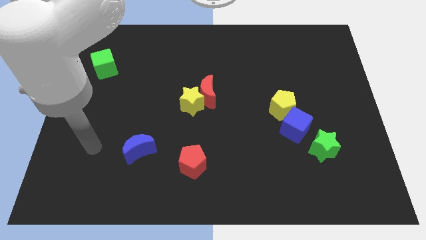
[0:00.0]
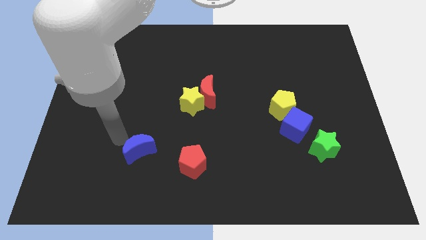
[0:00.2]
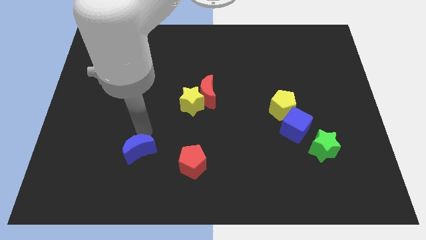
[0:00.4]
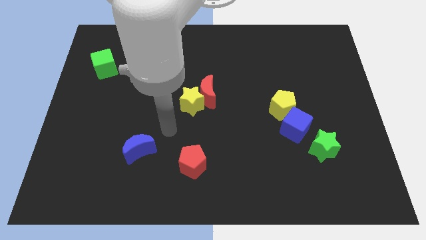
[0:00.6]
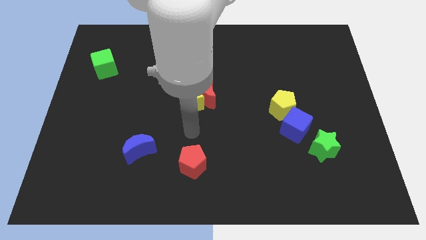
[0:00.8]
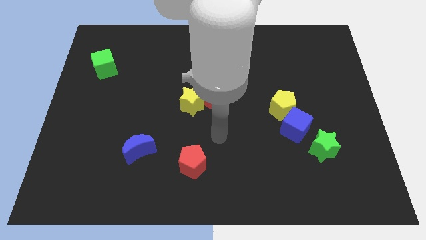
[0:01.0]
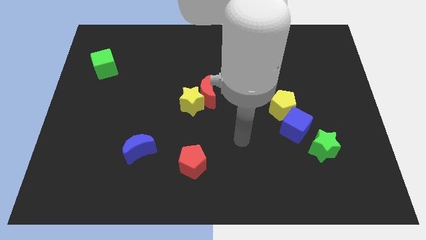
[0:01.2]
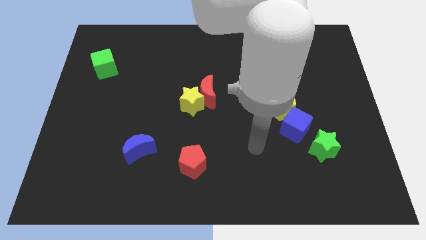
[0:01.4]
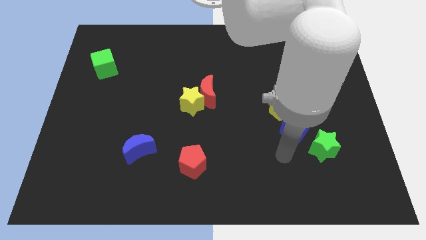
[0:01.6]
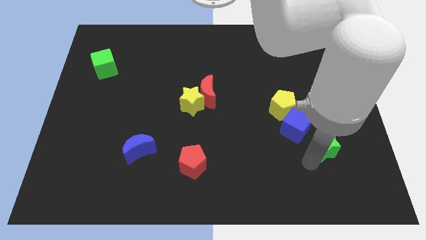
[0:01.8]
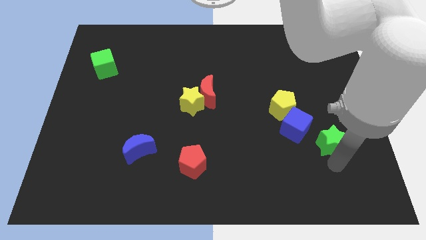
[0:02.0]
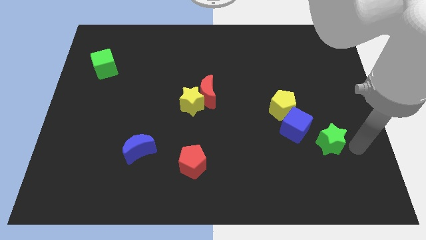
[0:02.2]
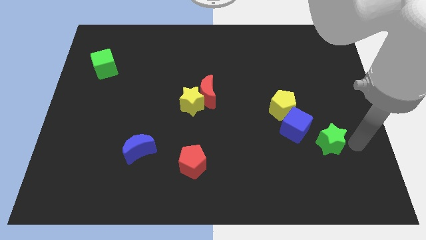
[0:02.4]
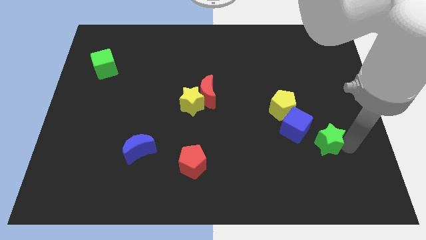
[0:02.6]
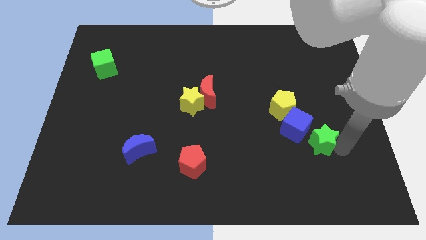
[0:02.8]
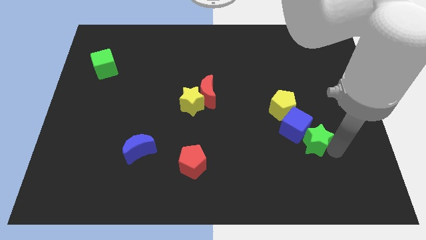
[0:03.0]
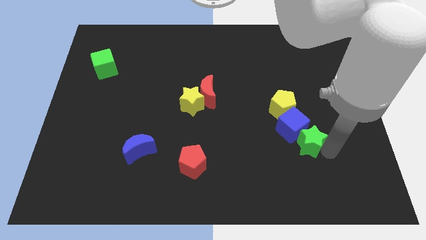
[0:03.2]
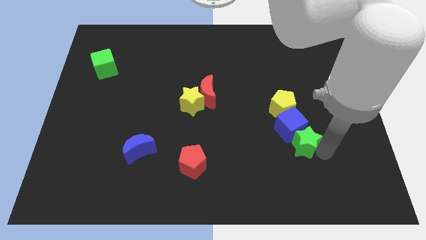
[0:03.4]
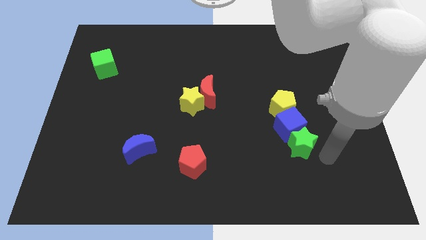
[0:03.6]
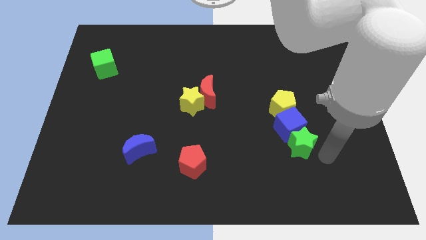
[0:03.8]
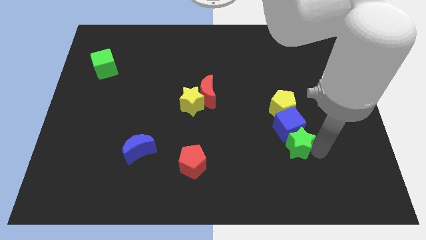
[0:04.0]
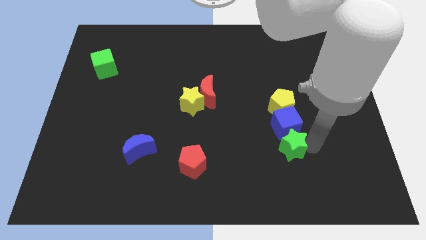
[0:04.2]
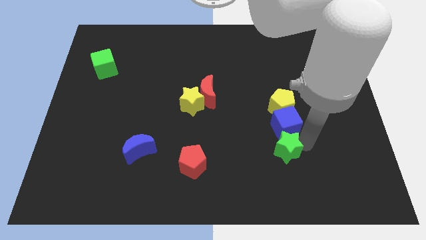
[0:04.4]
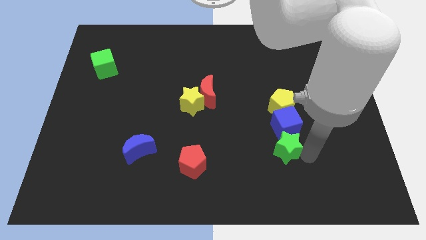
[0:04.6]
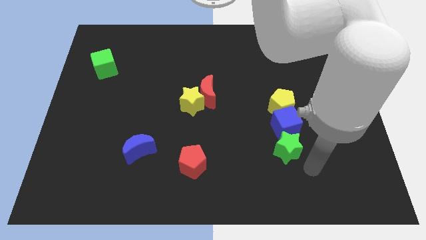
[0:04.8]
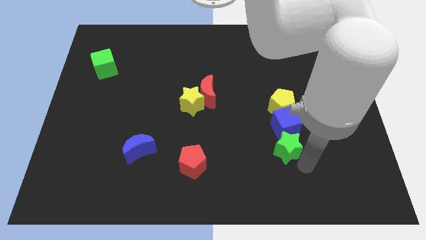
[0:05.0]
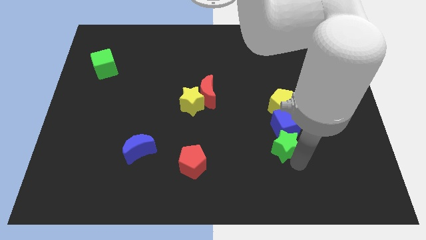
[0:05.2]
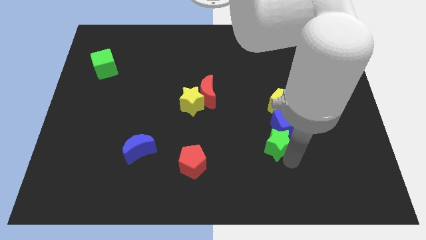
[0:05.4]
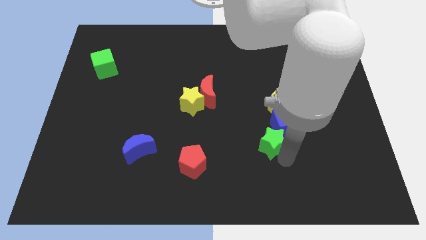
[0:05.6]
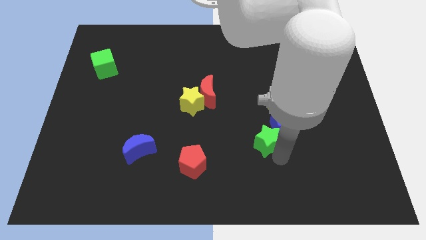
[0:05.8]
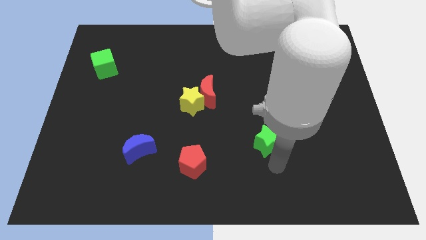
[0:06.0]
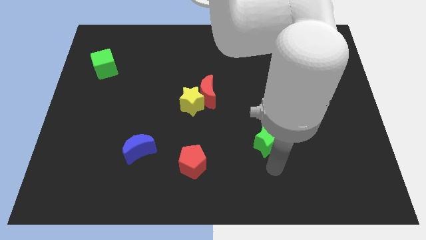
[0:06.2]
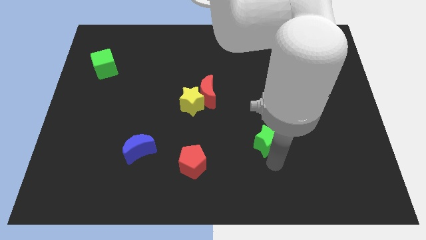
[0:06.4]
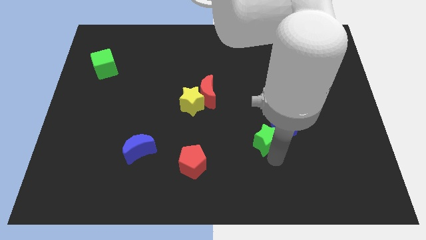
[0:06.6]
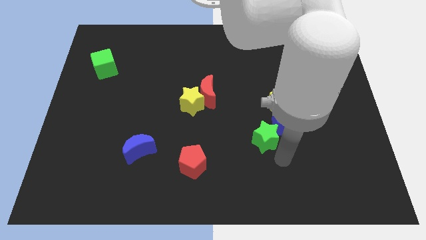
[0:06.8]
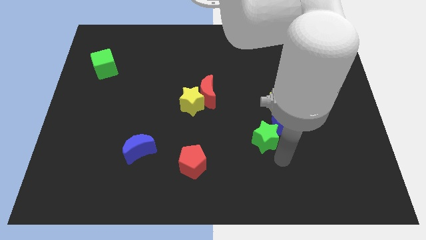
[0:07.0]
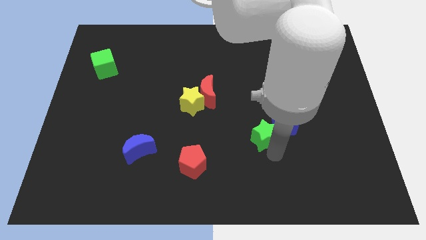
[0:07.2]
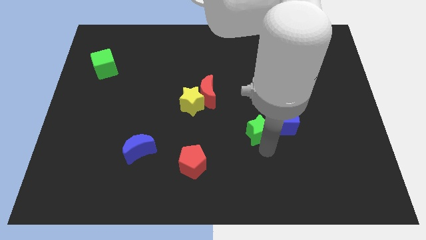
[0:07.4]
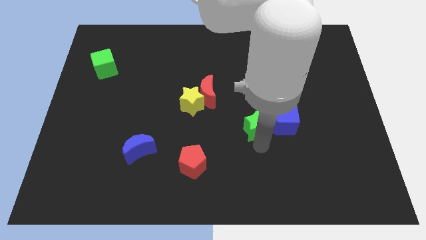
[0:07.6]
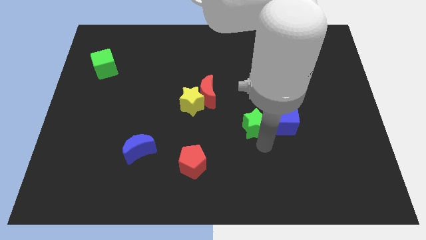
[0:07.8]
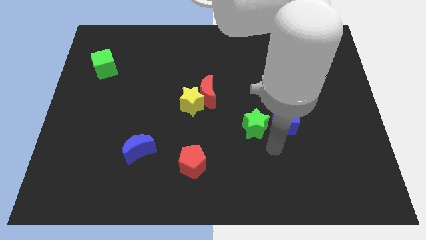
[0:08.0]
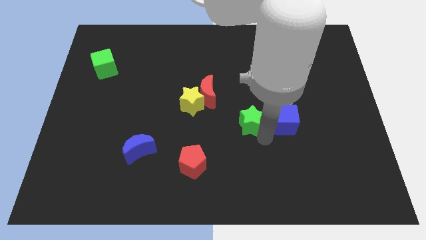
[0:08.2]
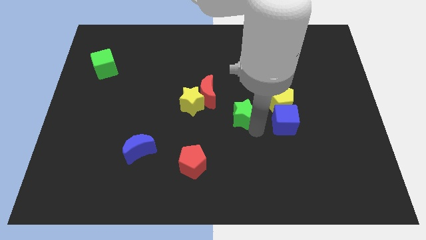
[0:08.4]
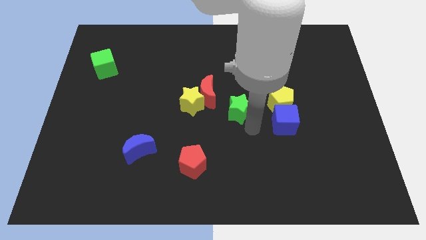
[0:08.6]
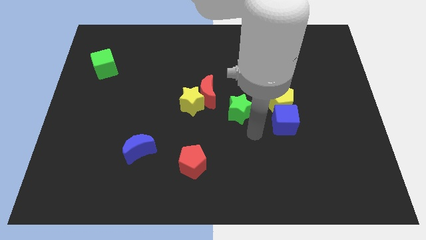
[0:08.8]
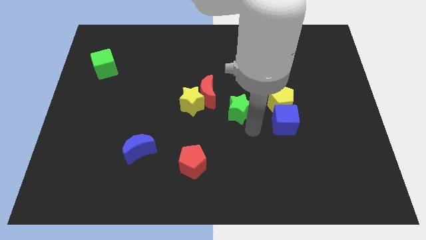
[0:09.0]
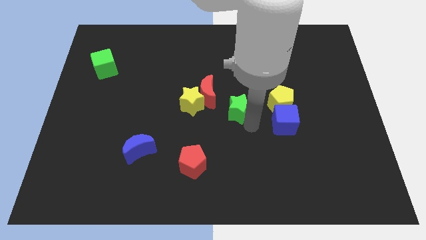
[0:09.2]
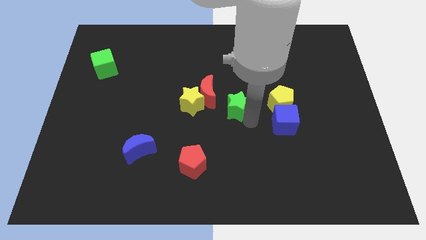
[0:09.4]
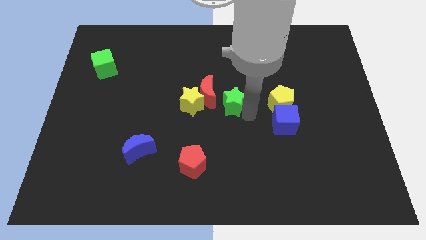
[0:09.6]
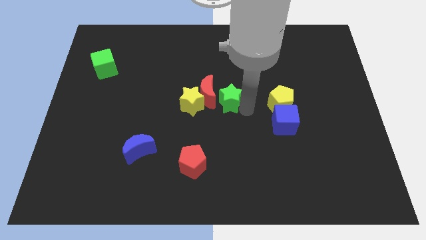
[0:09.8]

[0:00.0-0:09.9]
push the green star next to the red moon

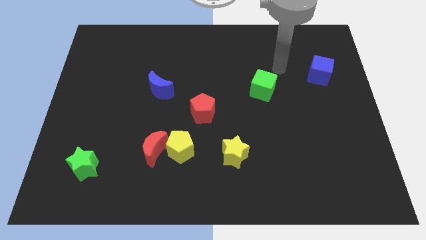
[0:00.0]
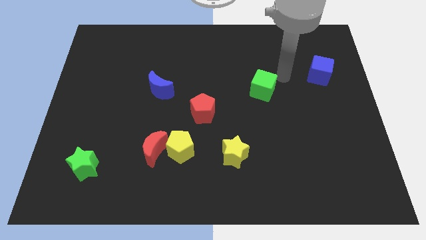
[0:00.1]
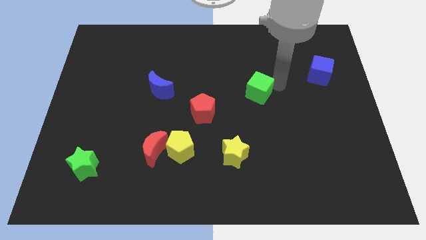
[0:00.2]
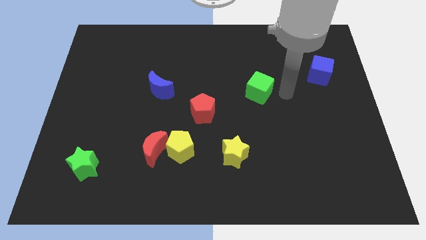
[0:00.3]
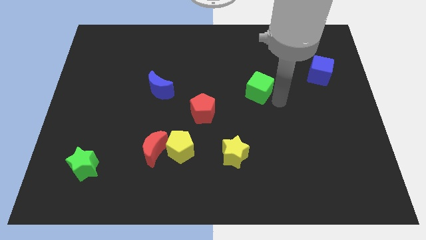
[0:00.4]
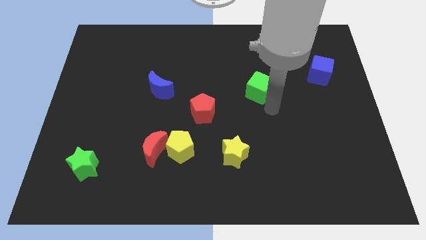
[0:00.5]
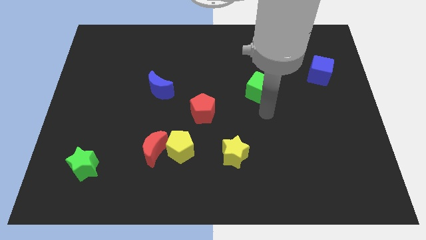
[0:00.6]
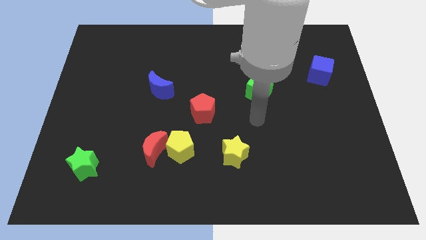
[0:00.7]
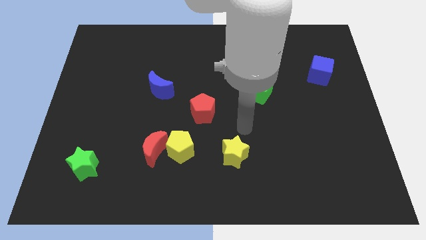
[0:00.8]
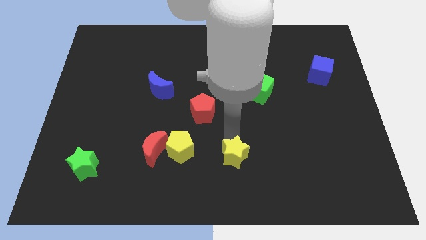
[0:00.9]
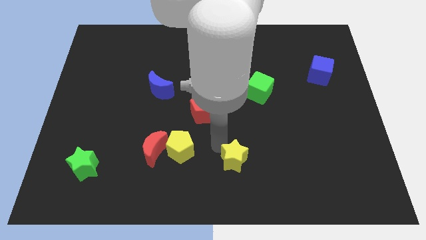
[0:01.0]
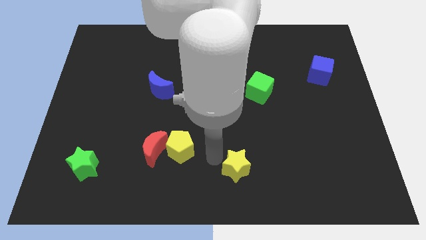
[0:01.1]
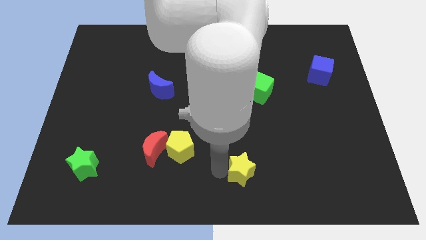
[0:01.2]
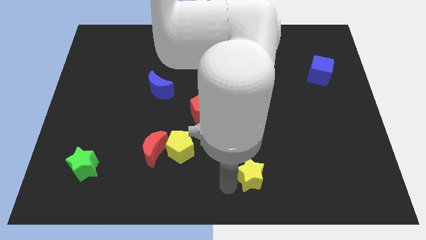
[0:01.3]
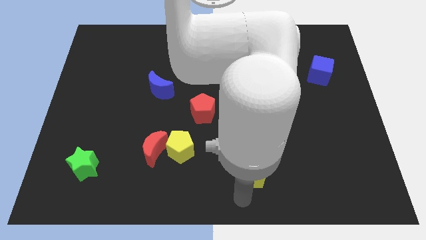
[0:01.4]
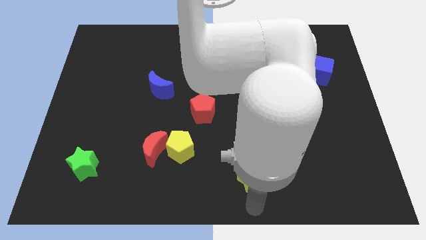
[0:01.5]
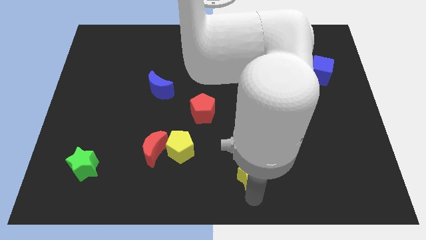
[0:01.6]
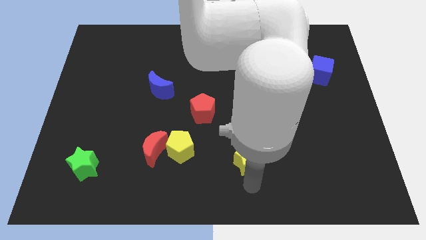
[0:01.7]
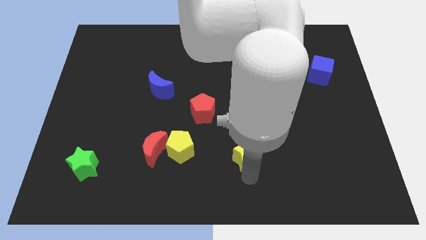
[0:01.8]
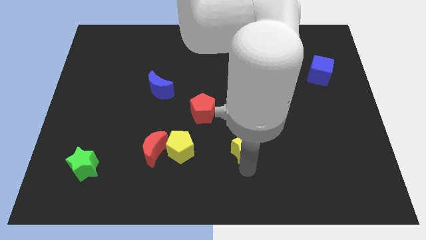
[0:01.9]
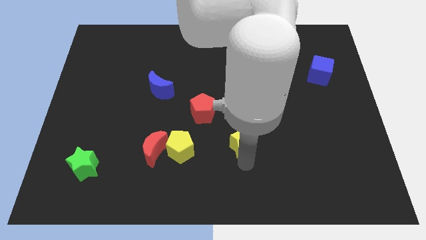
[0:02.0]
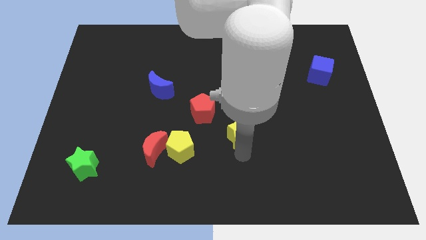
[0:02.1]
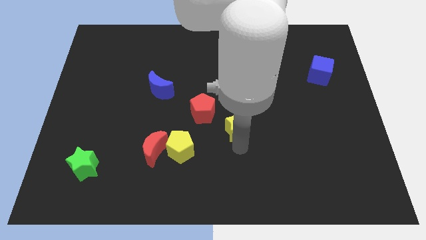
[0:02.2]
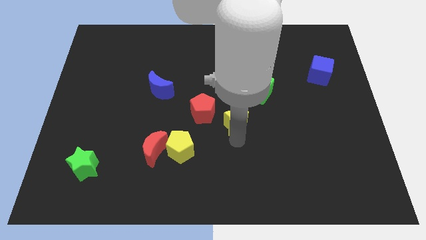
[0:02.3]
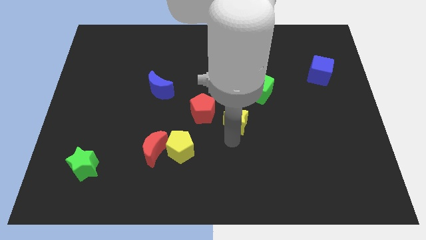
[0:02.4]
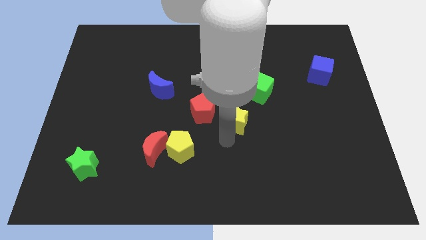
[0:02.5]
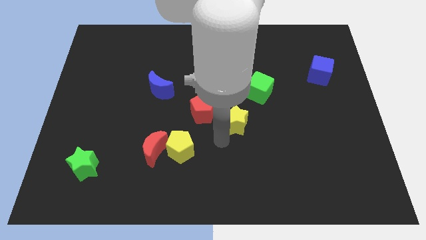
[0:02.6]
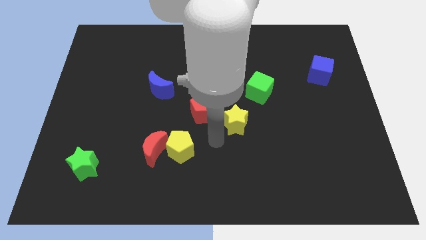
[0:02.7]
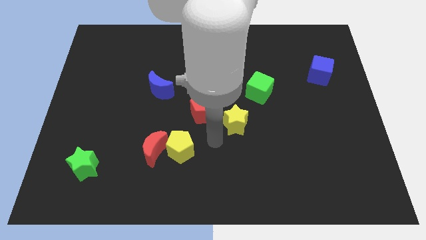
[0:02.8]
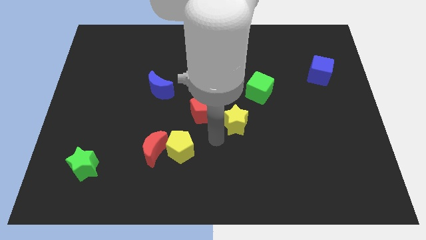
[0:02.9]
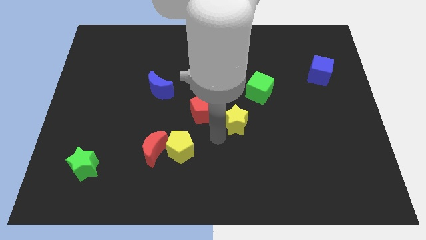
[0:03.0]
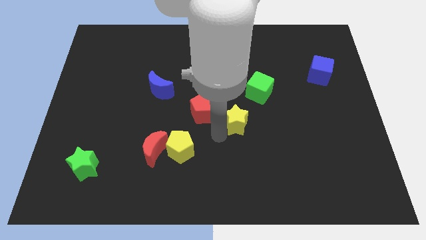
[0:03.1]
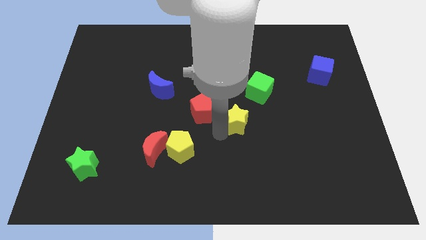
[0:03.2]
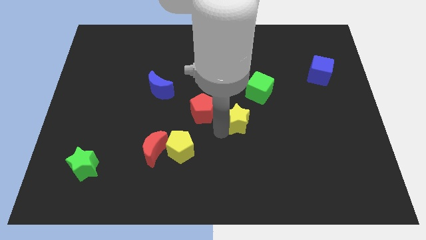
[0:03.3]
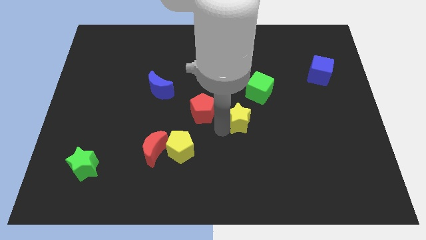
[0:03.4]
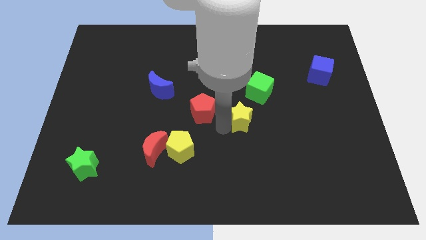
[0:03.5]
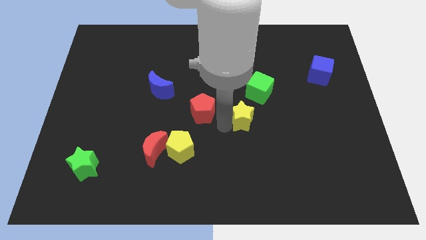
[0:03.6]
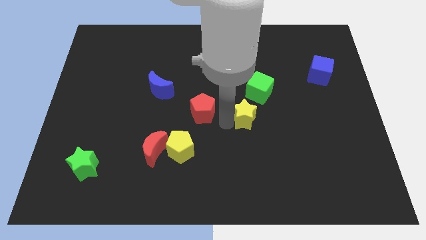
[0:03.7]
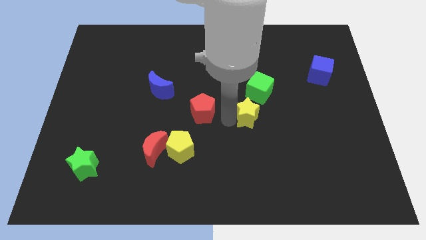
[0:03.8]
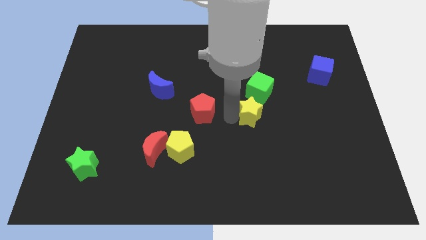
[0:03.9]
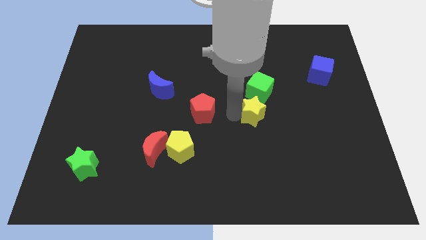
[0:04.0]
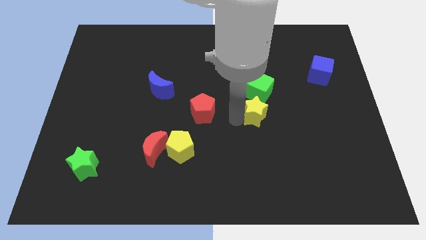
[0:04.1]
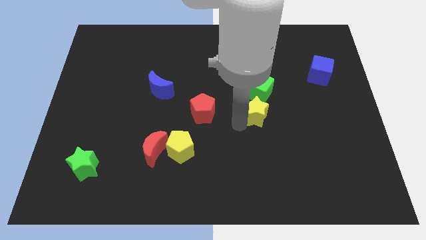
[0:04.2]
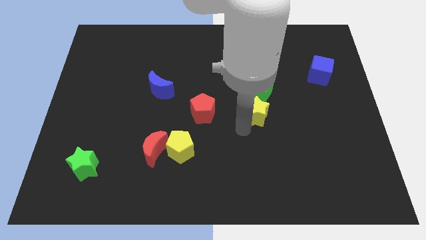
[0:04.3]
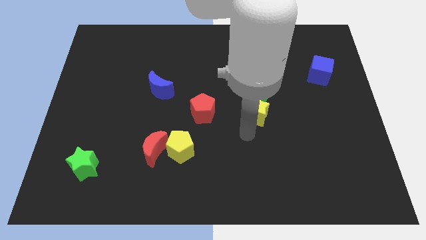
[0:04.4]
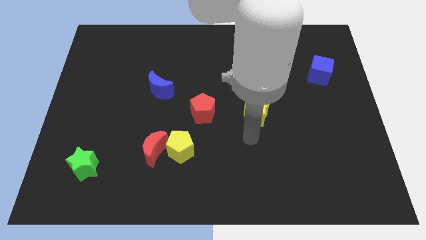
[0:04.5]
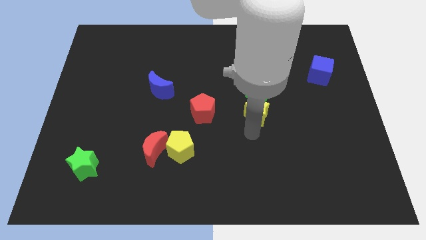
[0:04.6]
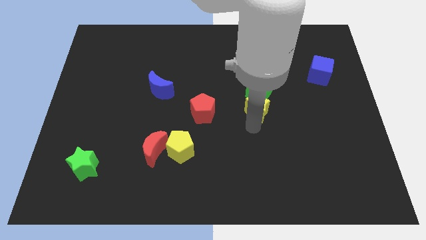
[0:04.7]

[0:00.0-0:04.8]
slide the yellow star close to the green cube
